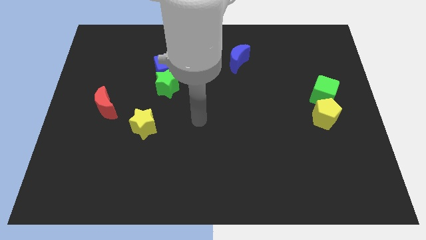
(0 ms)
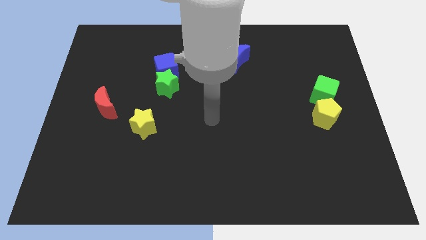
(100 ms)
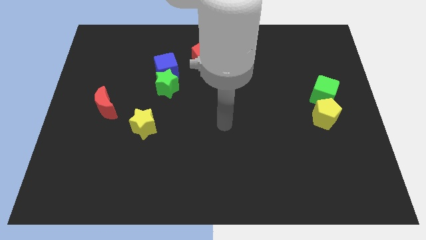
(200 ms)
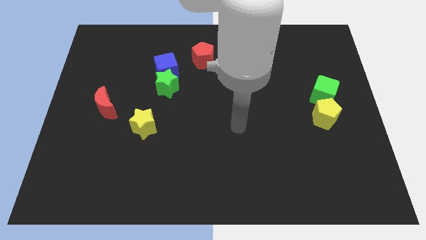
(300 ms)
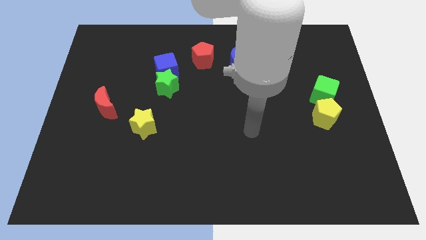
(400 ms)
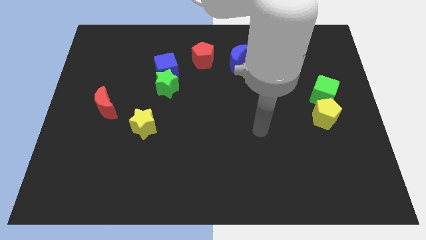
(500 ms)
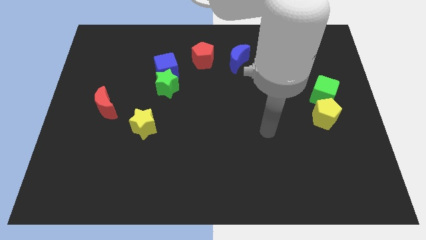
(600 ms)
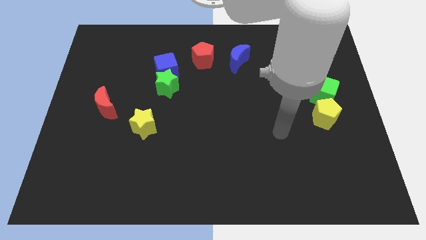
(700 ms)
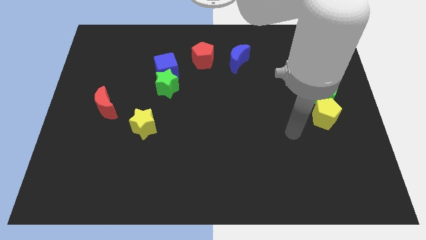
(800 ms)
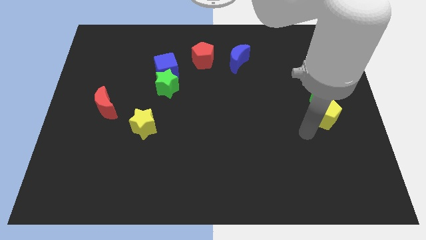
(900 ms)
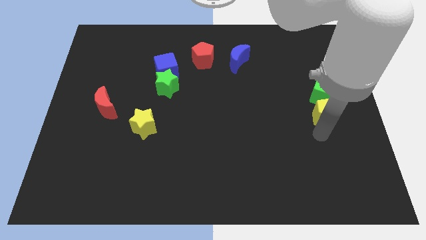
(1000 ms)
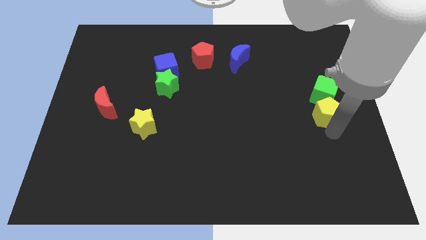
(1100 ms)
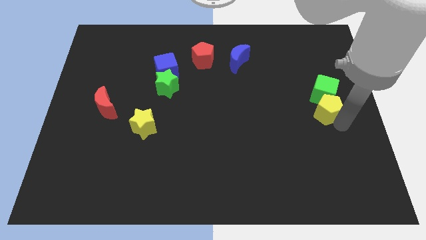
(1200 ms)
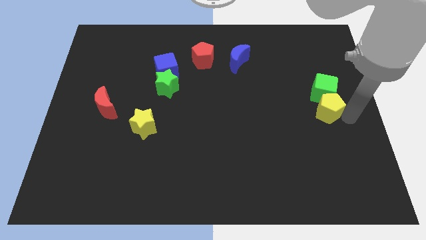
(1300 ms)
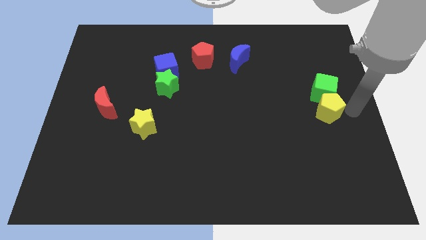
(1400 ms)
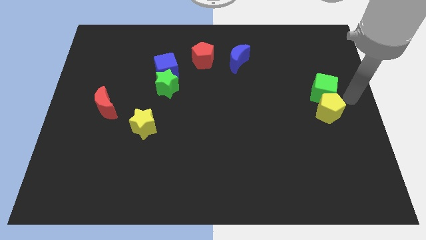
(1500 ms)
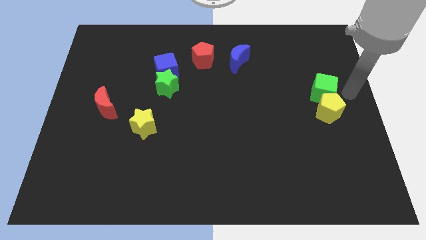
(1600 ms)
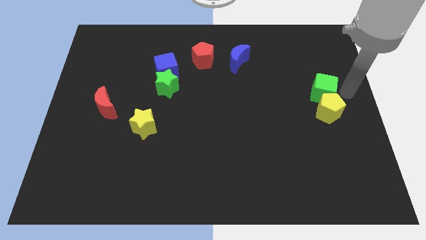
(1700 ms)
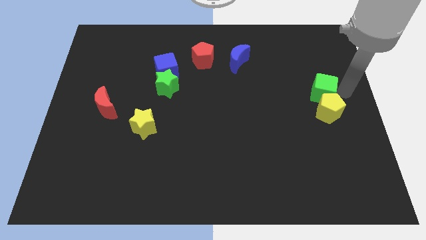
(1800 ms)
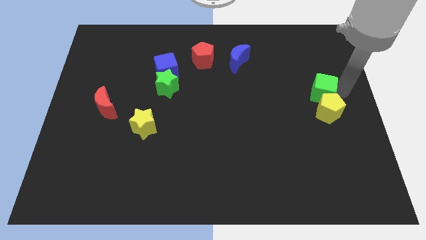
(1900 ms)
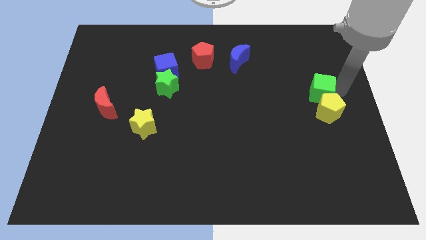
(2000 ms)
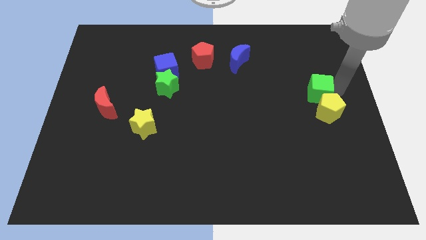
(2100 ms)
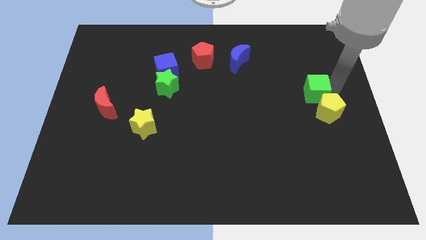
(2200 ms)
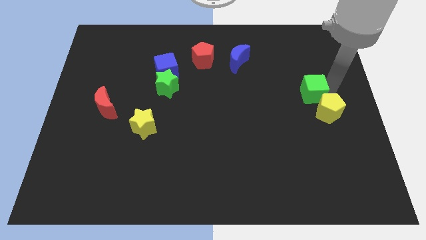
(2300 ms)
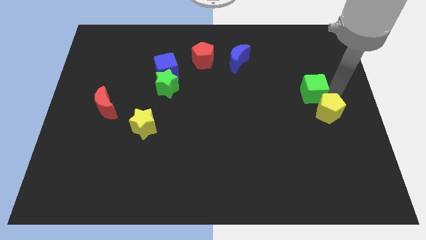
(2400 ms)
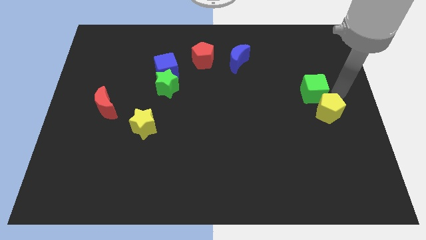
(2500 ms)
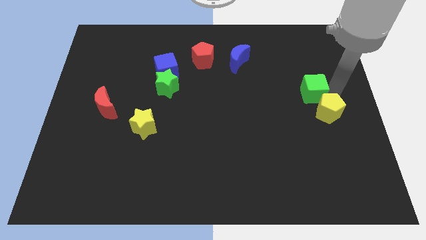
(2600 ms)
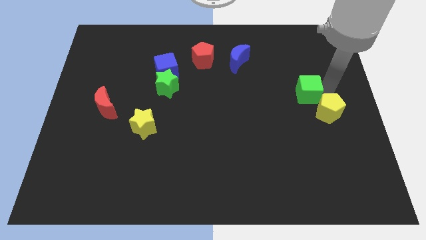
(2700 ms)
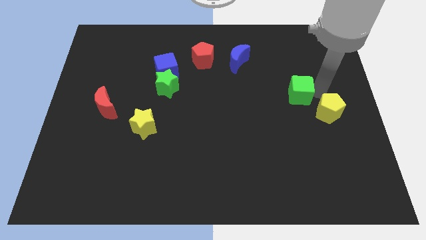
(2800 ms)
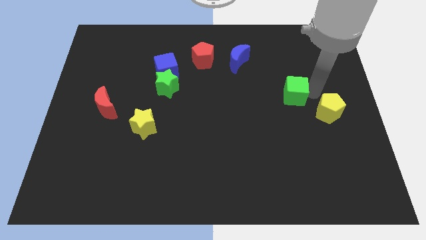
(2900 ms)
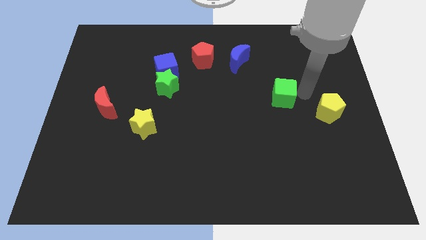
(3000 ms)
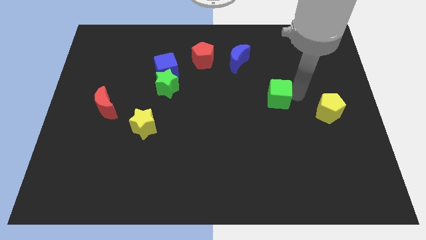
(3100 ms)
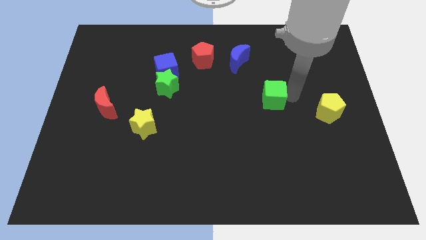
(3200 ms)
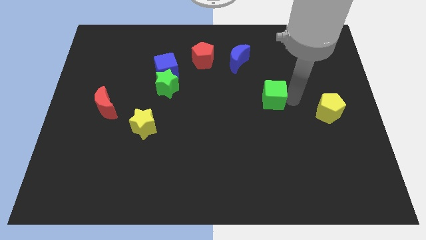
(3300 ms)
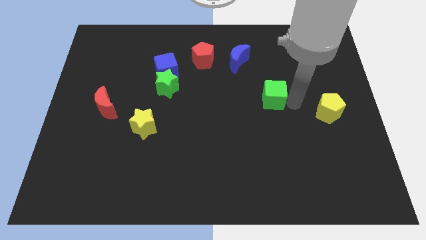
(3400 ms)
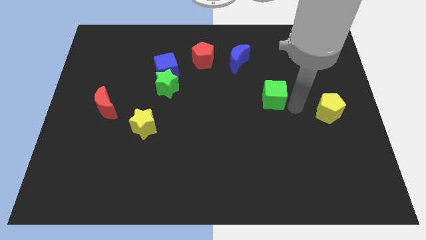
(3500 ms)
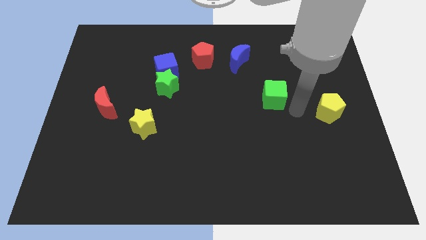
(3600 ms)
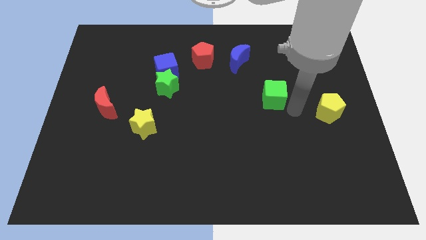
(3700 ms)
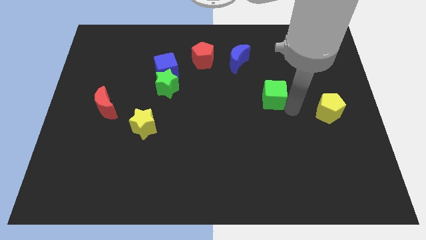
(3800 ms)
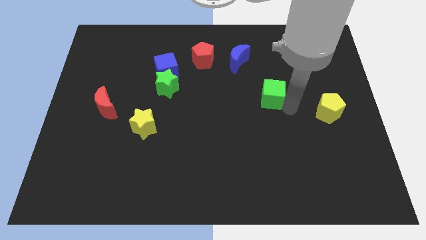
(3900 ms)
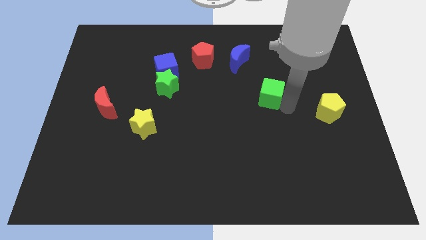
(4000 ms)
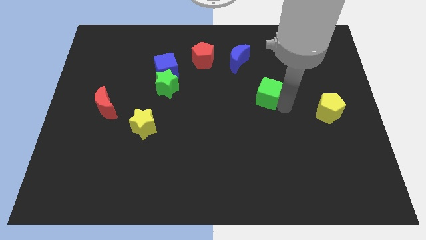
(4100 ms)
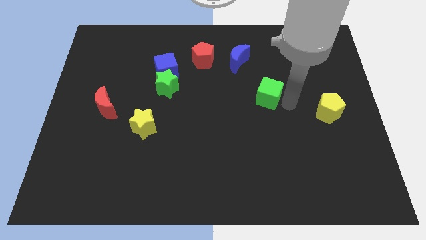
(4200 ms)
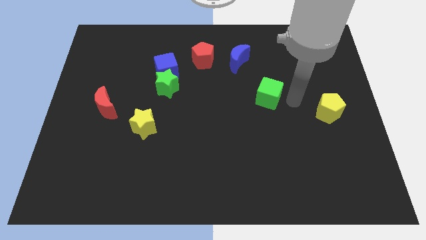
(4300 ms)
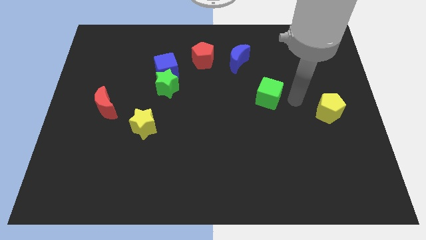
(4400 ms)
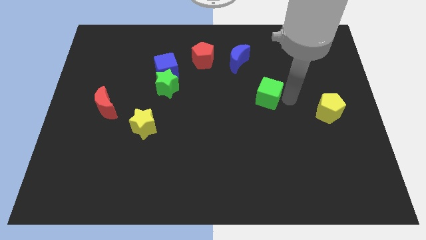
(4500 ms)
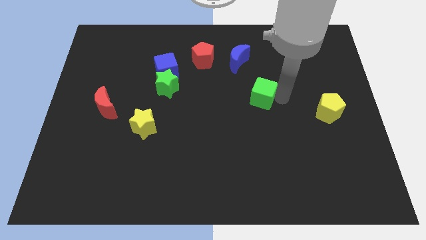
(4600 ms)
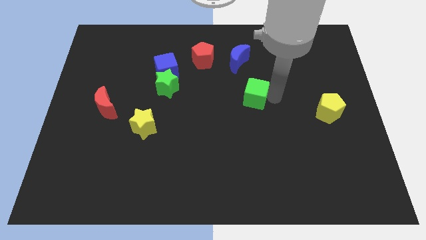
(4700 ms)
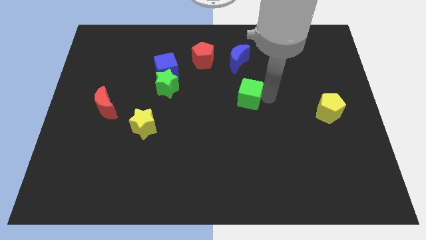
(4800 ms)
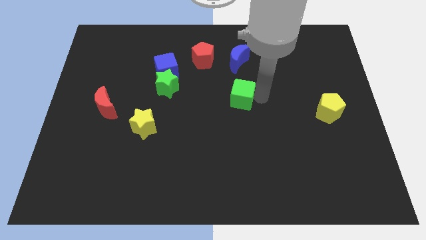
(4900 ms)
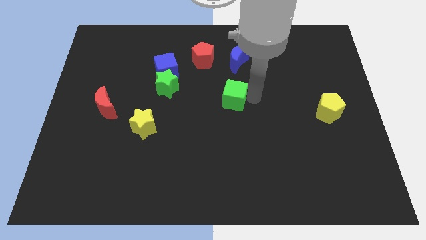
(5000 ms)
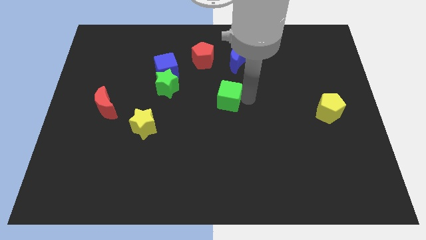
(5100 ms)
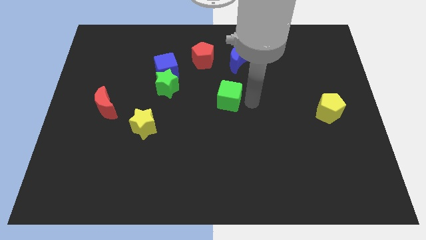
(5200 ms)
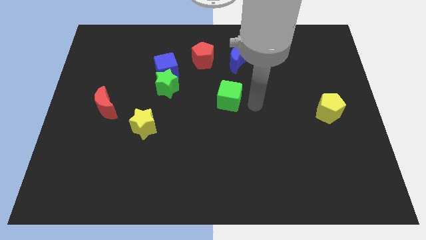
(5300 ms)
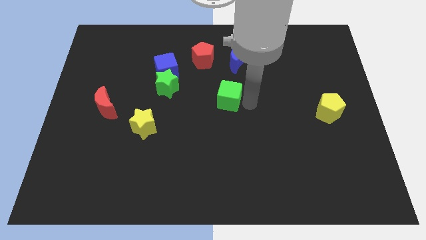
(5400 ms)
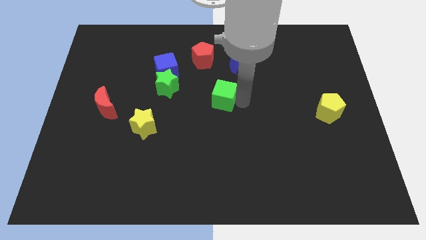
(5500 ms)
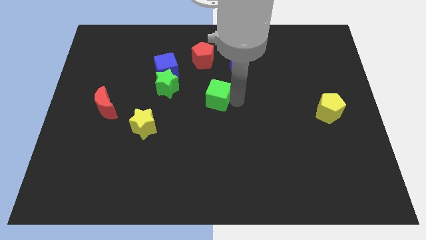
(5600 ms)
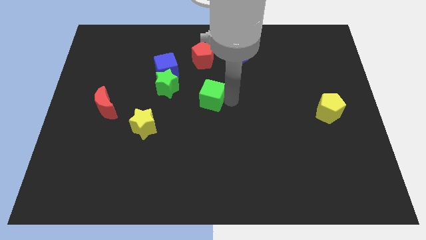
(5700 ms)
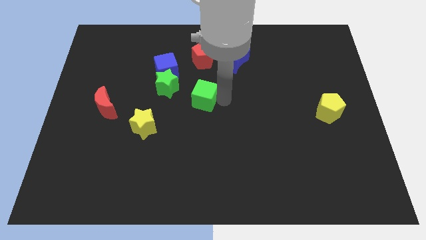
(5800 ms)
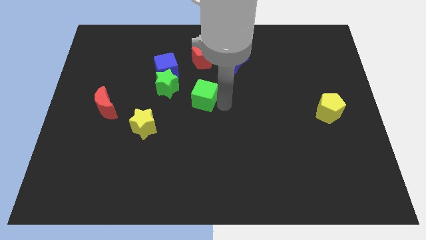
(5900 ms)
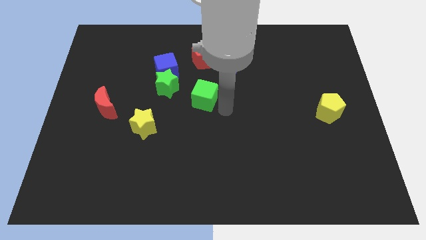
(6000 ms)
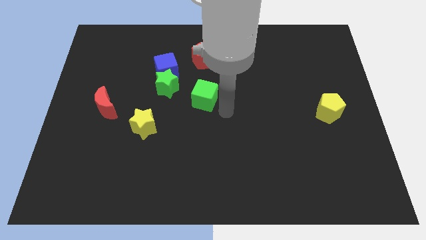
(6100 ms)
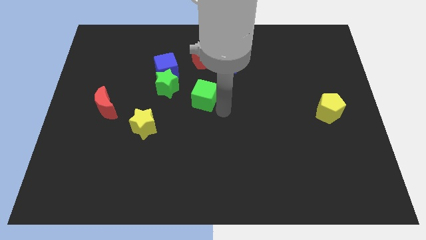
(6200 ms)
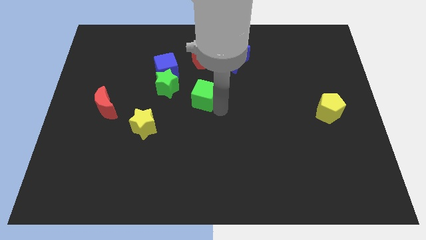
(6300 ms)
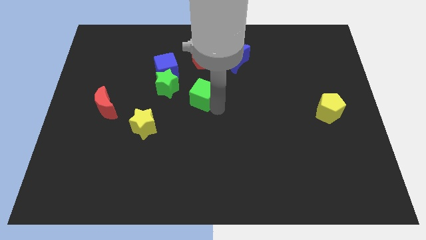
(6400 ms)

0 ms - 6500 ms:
slide the green cube diagonally down and to the right of the blue cube

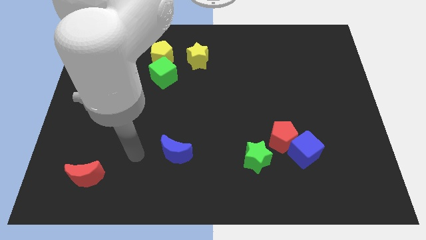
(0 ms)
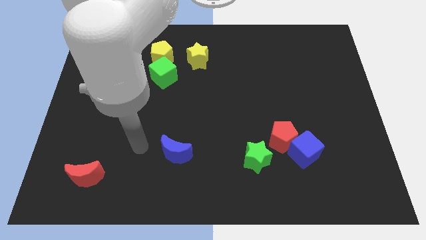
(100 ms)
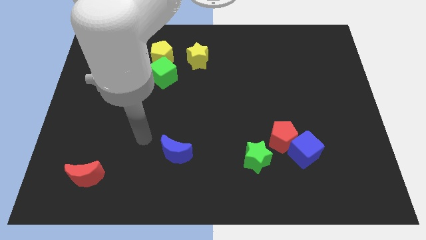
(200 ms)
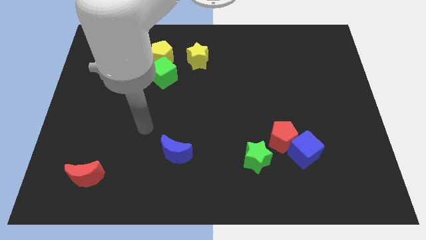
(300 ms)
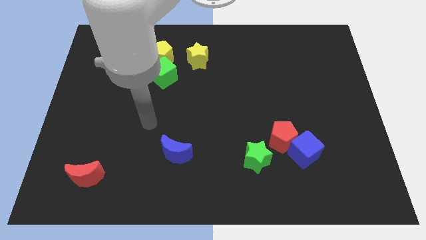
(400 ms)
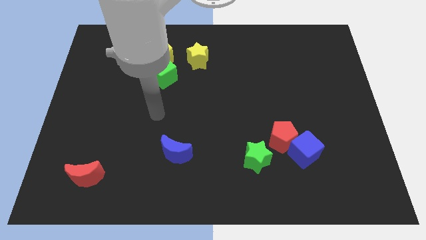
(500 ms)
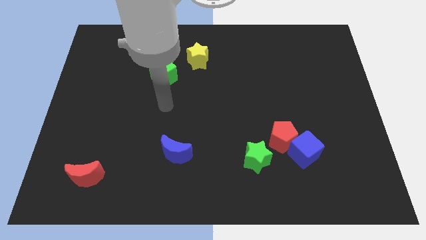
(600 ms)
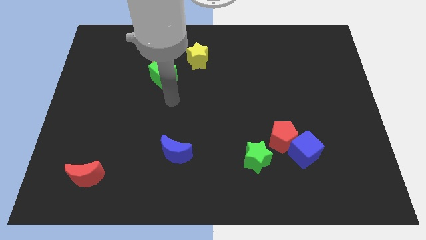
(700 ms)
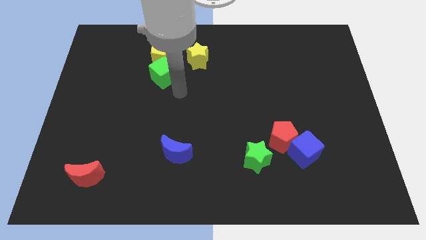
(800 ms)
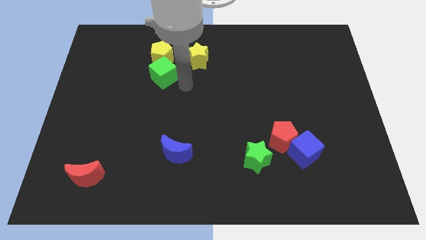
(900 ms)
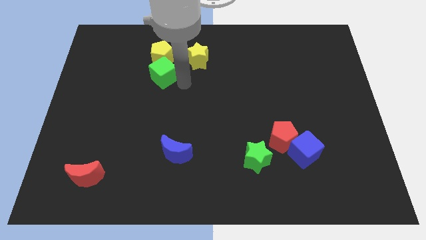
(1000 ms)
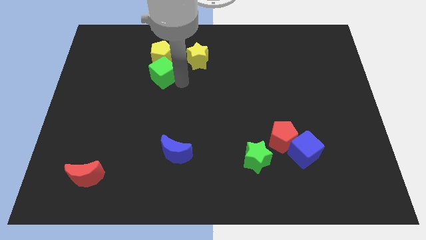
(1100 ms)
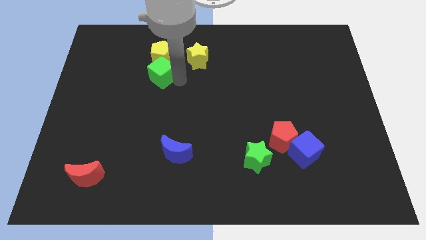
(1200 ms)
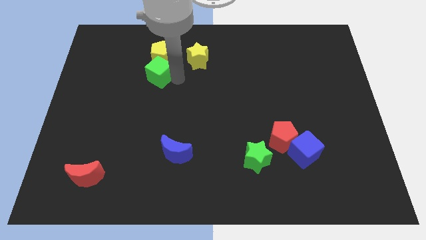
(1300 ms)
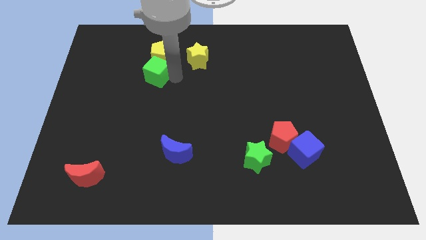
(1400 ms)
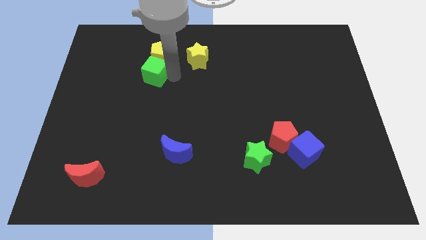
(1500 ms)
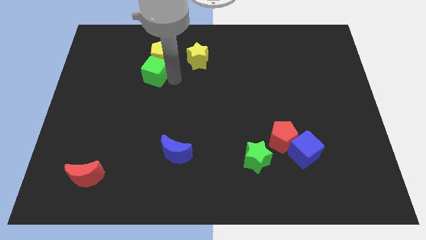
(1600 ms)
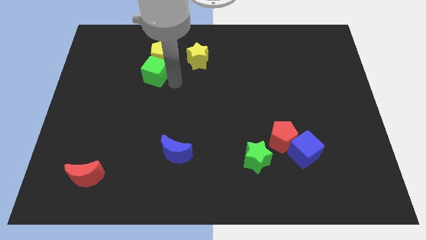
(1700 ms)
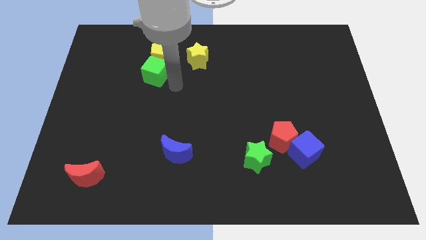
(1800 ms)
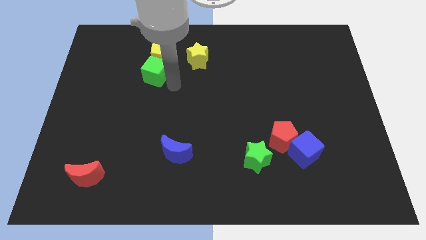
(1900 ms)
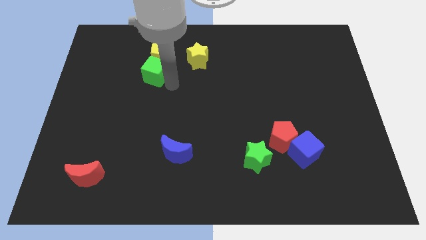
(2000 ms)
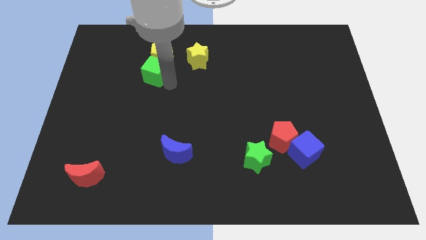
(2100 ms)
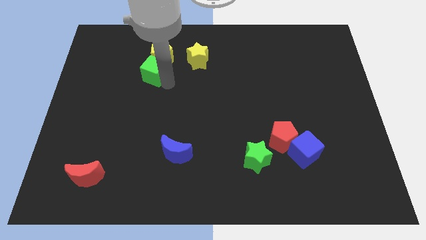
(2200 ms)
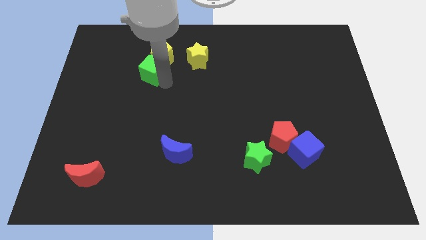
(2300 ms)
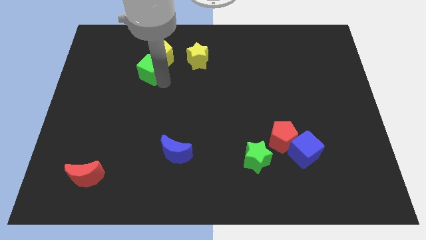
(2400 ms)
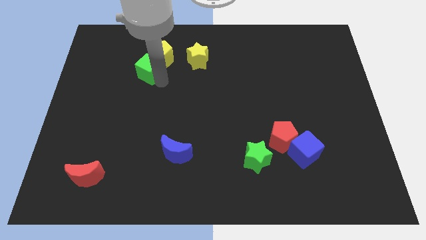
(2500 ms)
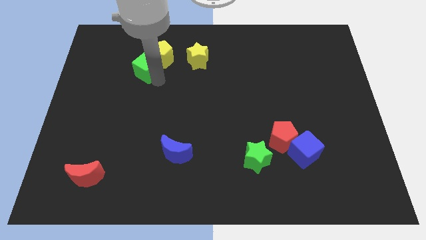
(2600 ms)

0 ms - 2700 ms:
move the green cube to the left of the yellow pentagon
